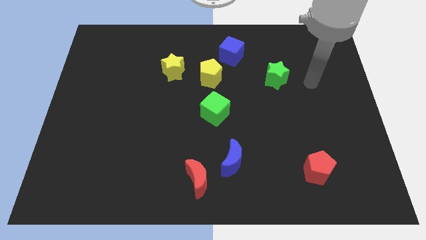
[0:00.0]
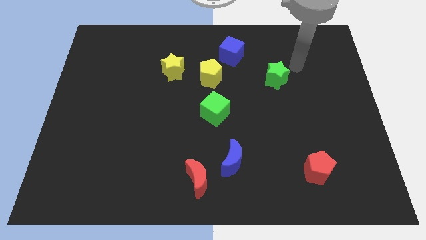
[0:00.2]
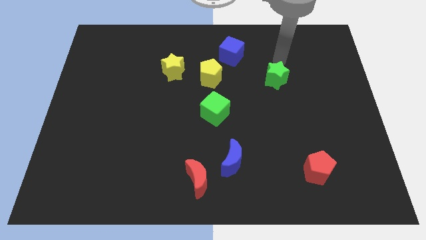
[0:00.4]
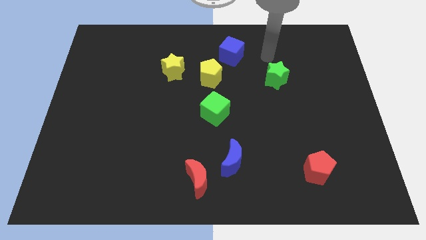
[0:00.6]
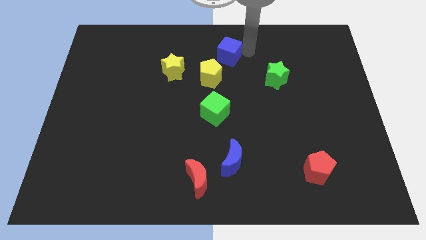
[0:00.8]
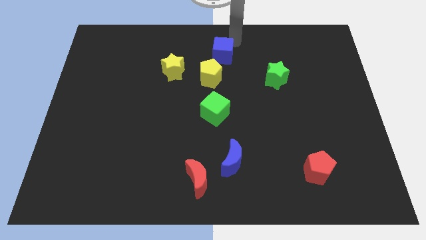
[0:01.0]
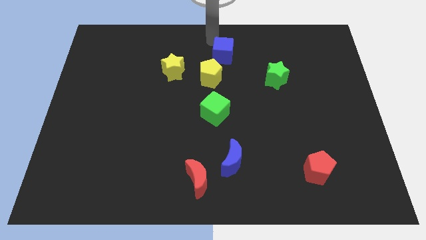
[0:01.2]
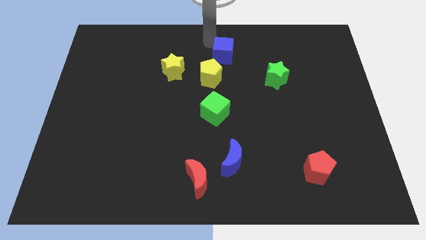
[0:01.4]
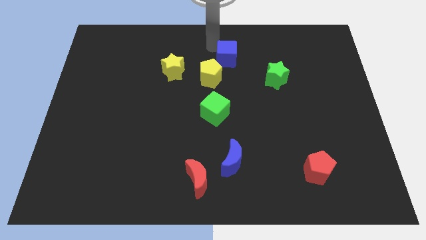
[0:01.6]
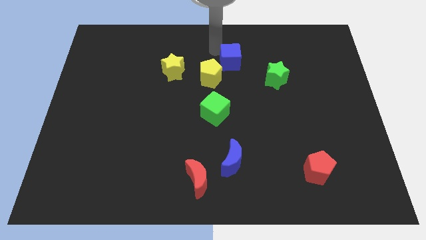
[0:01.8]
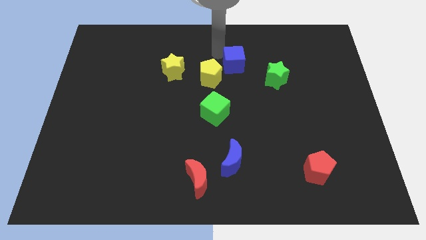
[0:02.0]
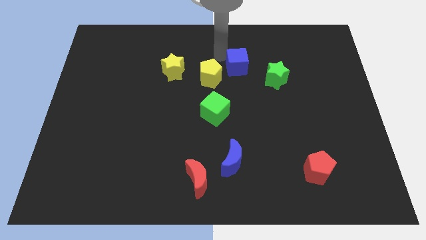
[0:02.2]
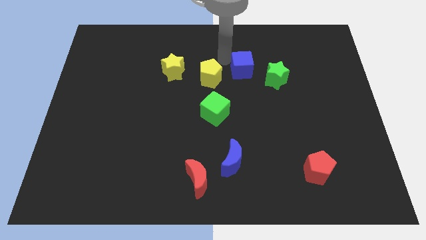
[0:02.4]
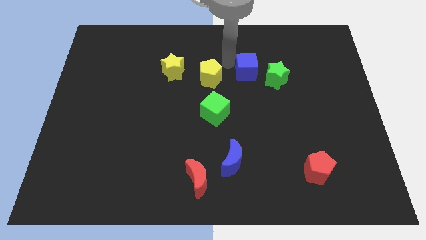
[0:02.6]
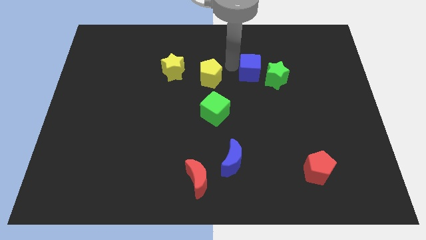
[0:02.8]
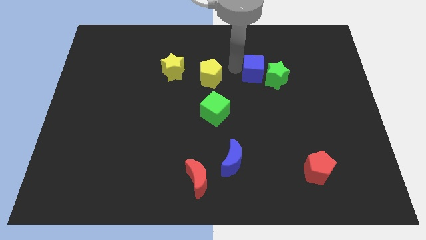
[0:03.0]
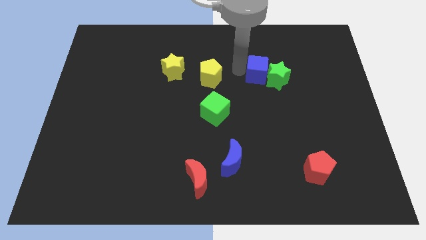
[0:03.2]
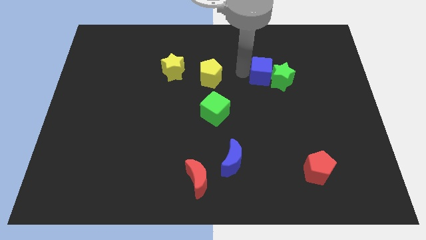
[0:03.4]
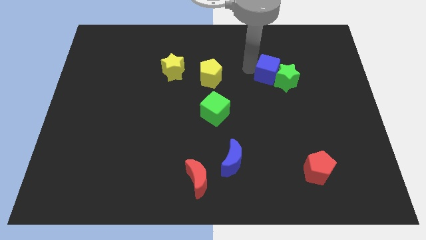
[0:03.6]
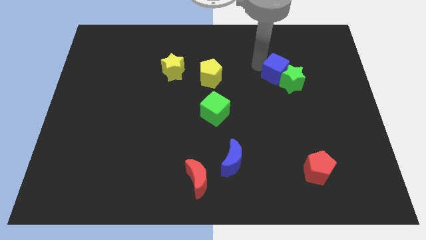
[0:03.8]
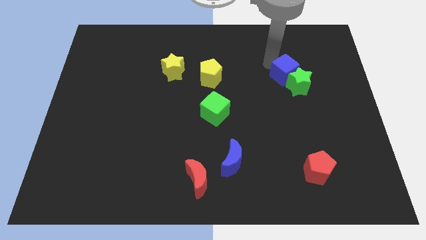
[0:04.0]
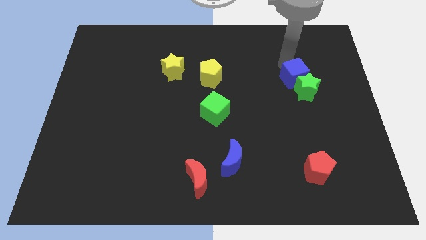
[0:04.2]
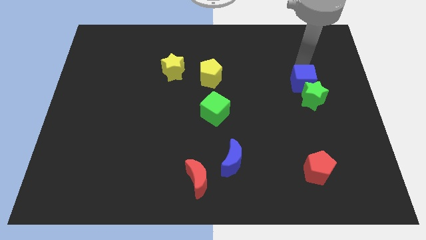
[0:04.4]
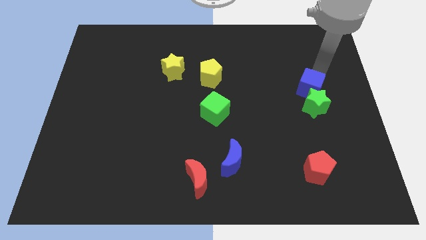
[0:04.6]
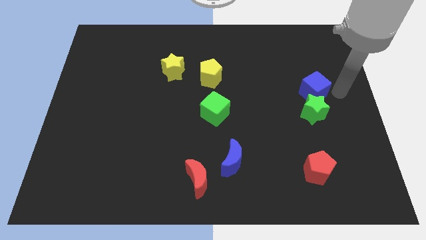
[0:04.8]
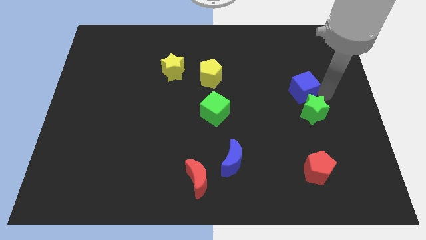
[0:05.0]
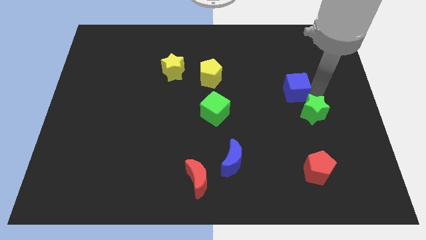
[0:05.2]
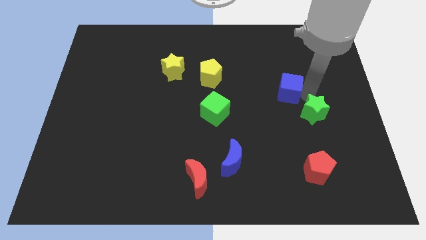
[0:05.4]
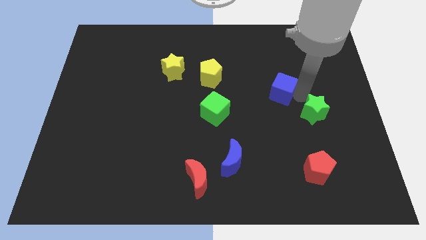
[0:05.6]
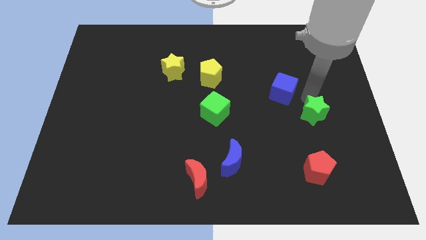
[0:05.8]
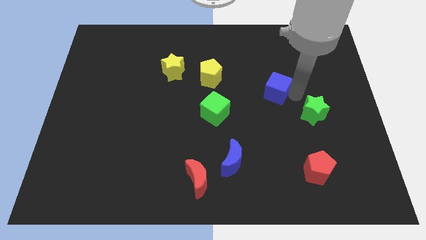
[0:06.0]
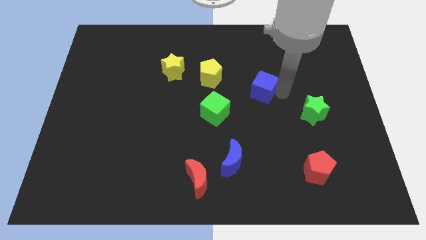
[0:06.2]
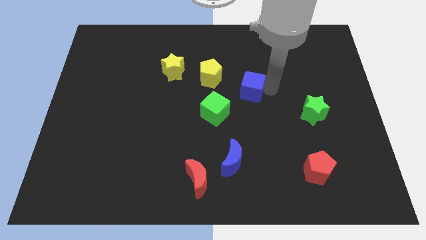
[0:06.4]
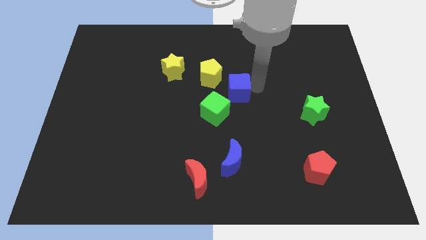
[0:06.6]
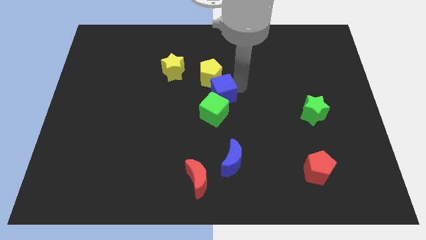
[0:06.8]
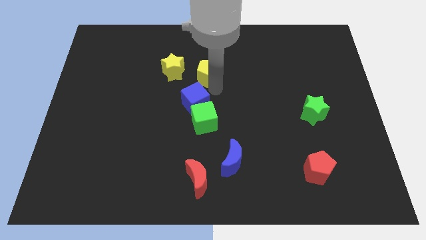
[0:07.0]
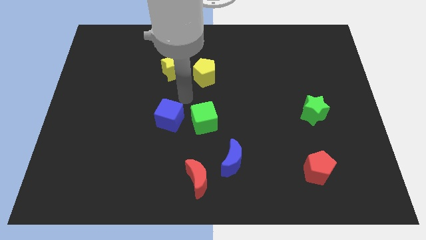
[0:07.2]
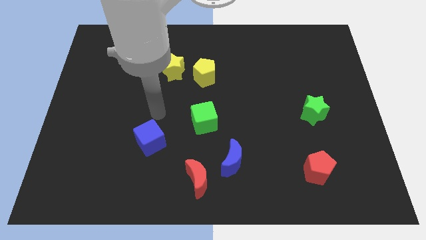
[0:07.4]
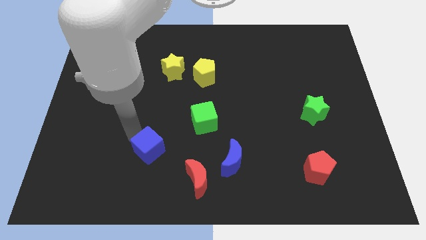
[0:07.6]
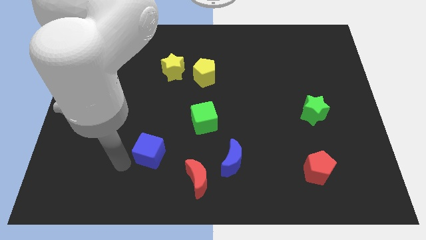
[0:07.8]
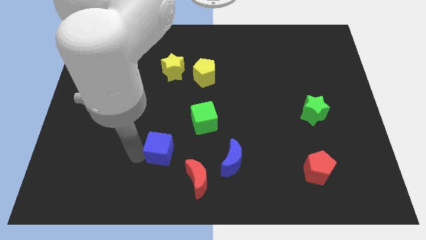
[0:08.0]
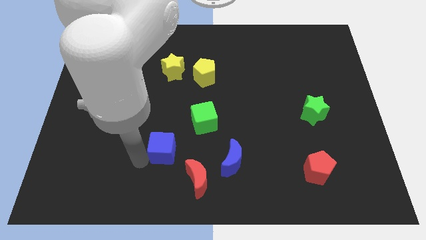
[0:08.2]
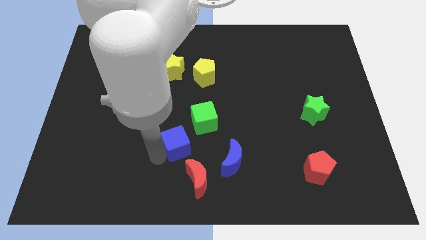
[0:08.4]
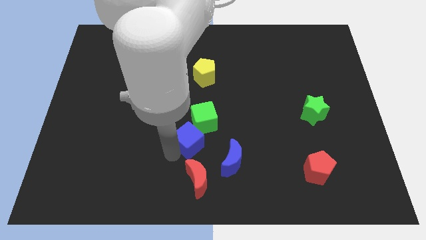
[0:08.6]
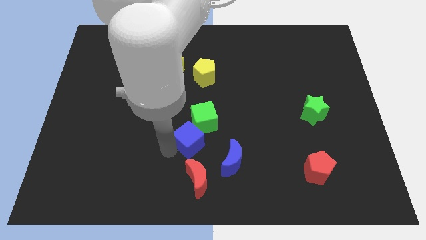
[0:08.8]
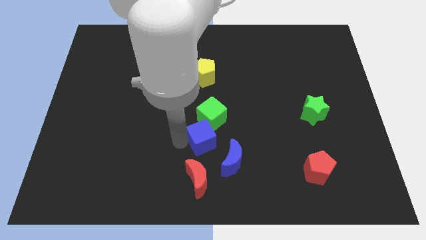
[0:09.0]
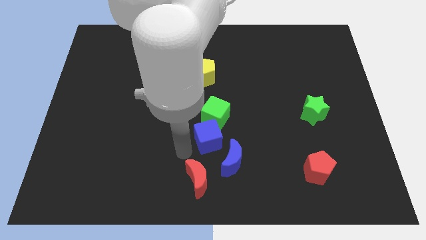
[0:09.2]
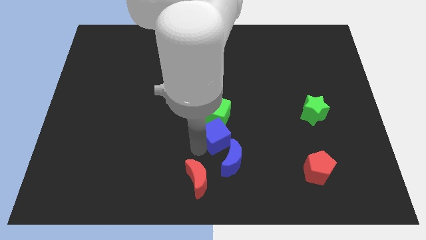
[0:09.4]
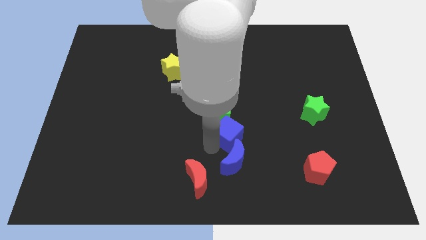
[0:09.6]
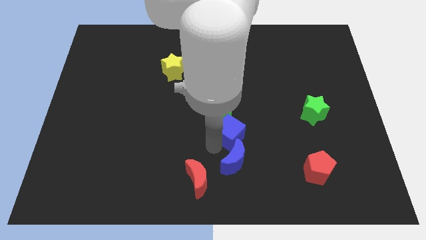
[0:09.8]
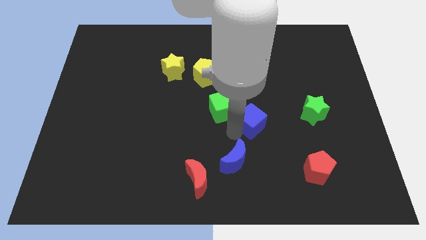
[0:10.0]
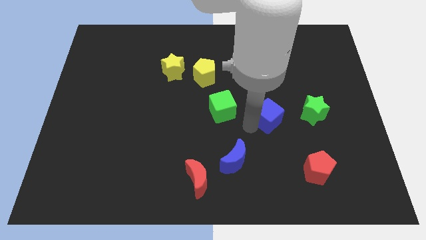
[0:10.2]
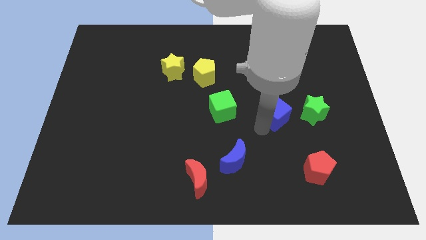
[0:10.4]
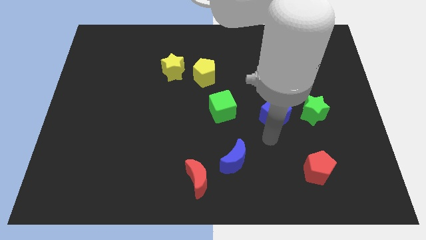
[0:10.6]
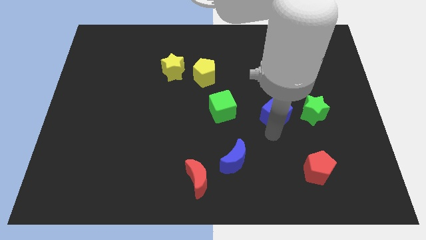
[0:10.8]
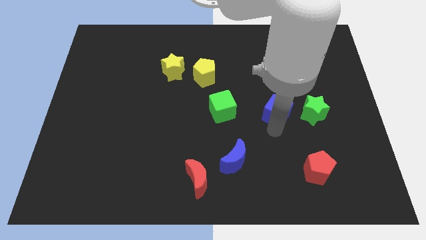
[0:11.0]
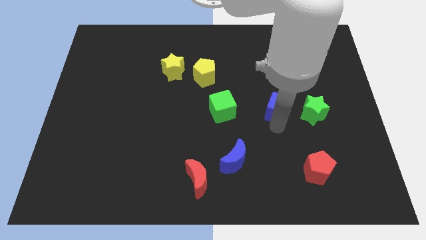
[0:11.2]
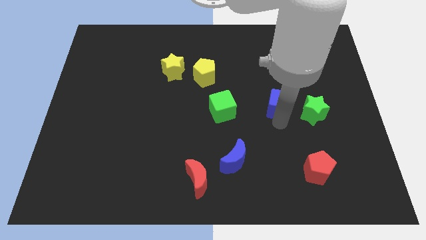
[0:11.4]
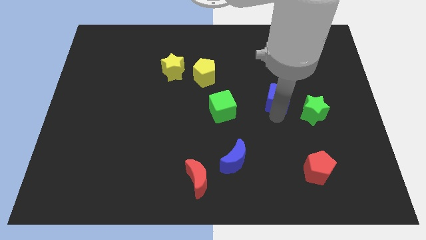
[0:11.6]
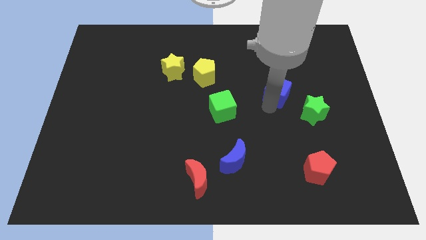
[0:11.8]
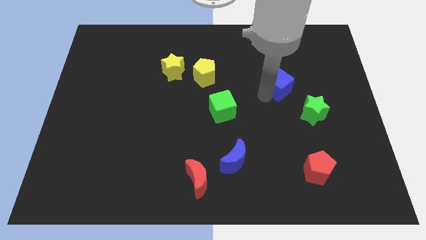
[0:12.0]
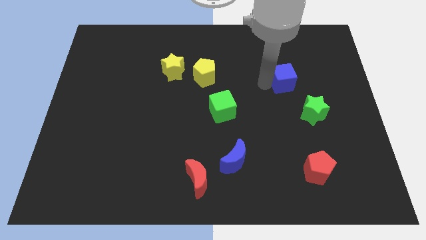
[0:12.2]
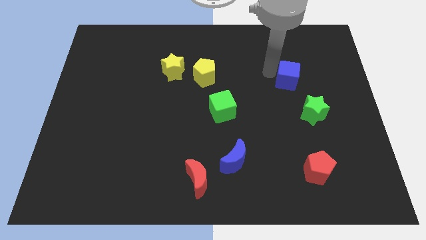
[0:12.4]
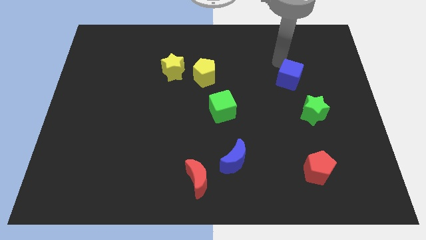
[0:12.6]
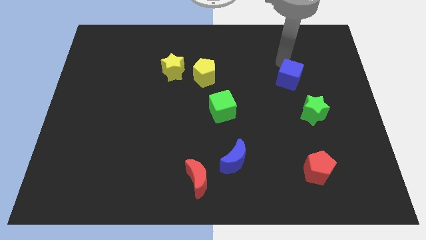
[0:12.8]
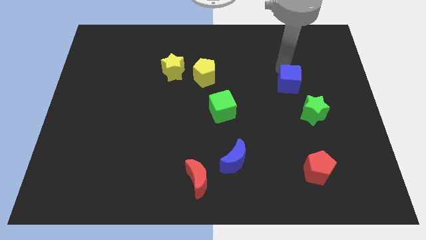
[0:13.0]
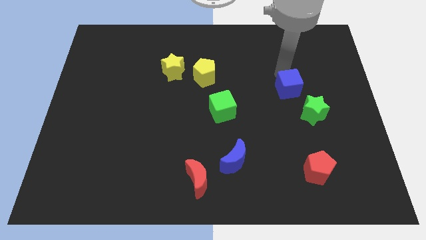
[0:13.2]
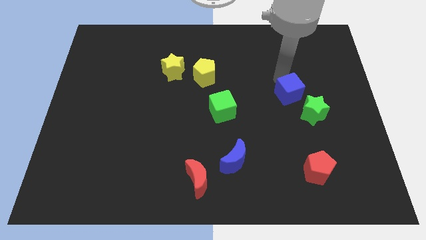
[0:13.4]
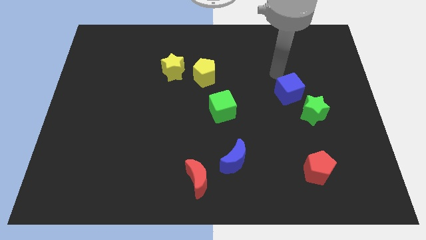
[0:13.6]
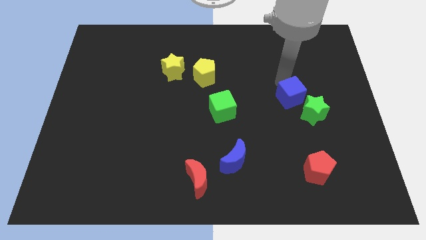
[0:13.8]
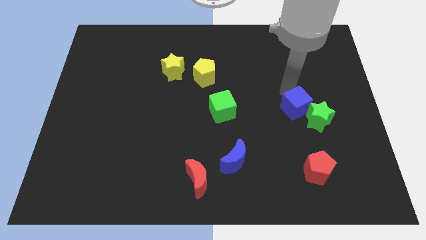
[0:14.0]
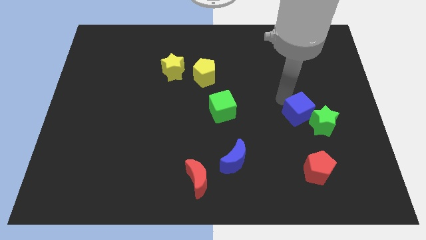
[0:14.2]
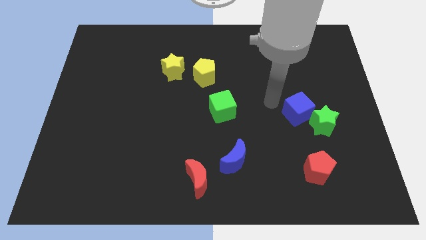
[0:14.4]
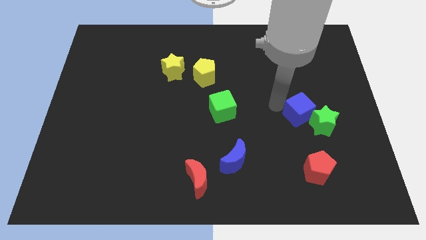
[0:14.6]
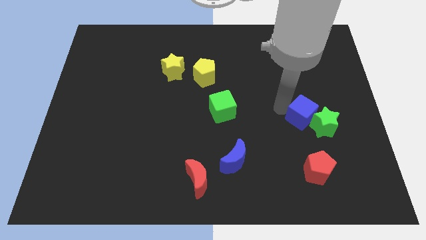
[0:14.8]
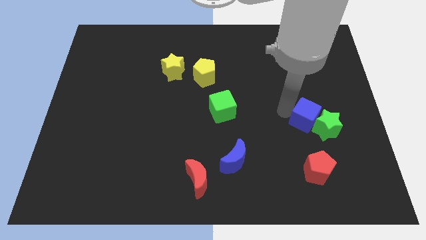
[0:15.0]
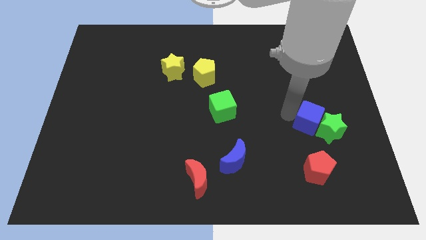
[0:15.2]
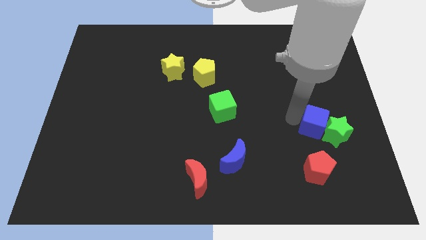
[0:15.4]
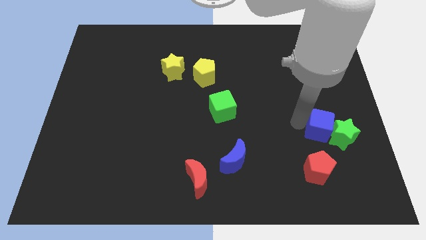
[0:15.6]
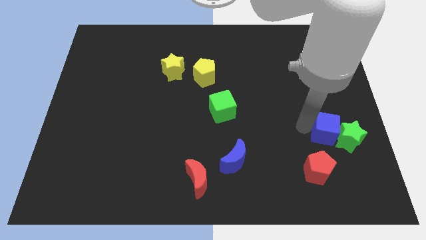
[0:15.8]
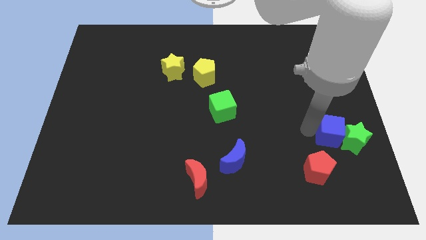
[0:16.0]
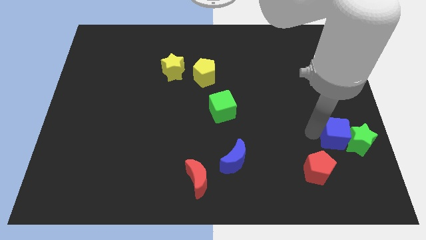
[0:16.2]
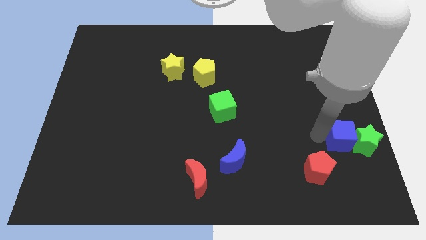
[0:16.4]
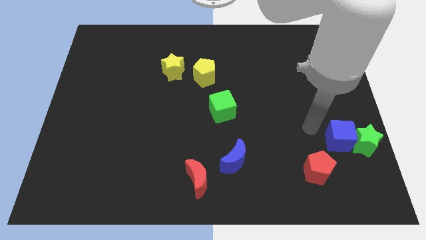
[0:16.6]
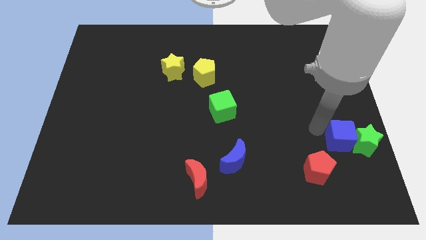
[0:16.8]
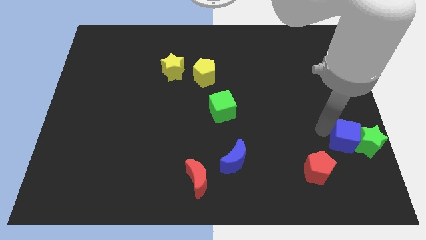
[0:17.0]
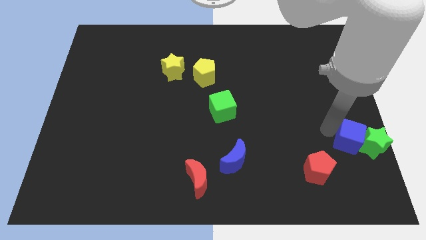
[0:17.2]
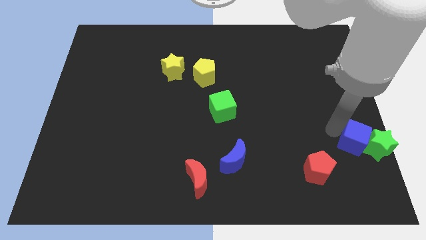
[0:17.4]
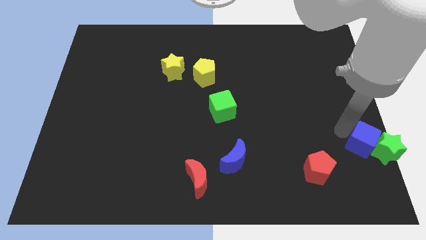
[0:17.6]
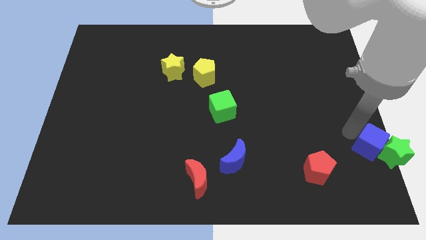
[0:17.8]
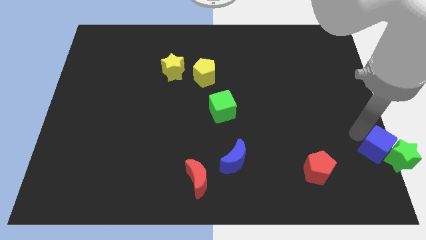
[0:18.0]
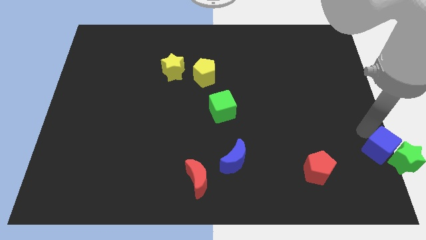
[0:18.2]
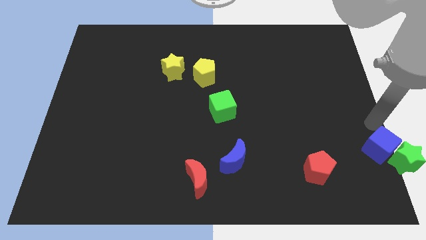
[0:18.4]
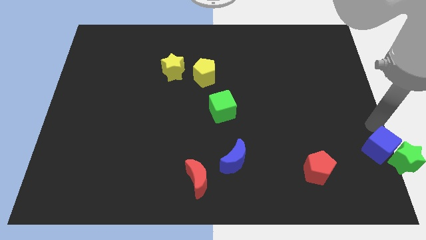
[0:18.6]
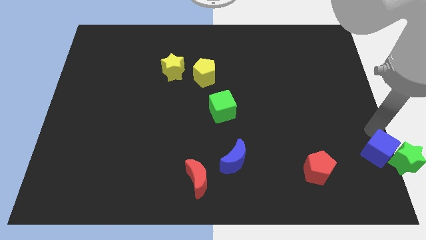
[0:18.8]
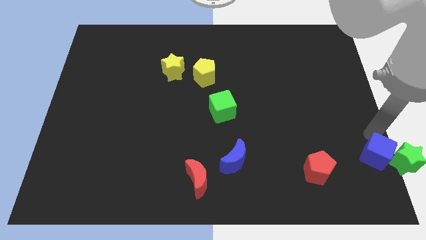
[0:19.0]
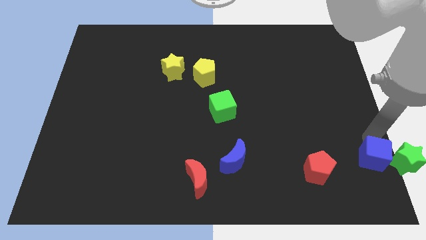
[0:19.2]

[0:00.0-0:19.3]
slide the blue cube to the bottom right of the board
